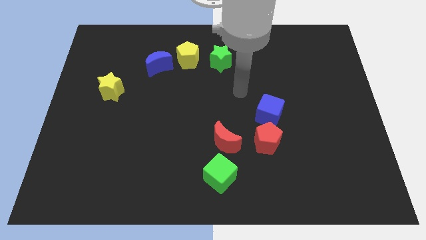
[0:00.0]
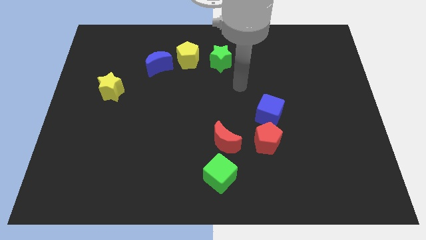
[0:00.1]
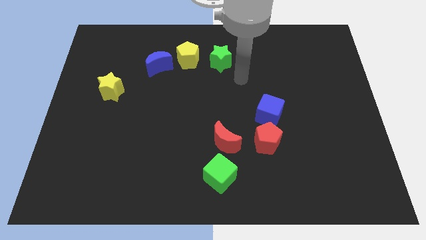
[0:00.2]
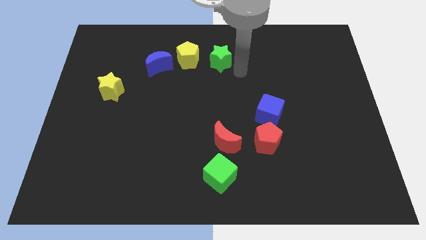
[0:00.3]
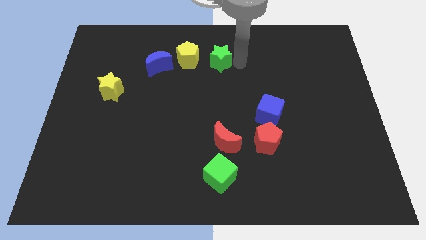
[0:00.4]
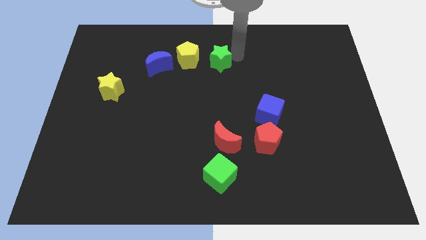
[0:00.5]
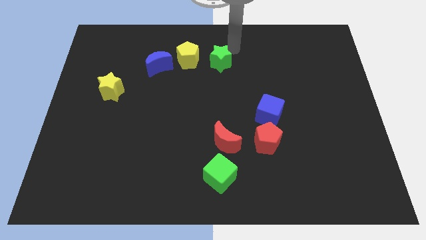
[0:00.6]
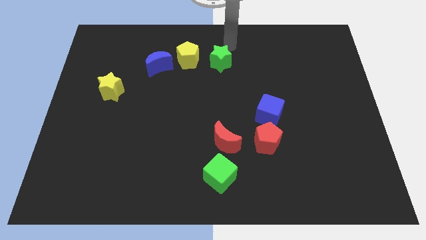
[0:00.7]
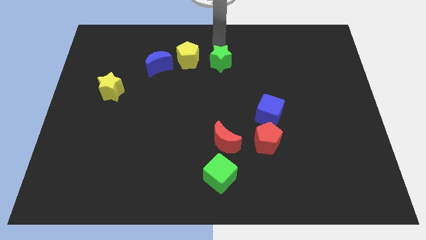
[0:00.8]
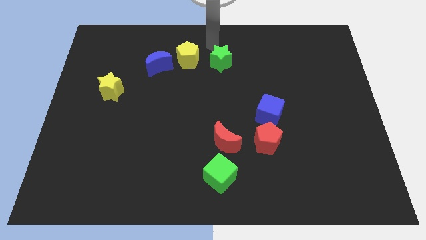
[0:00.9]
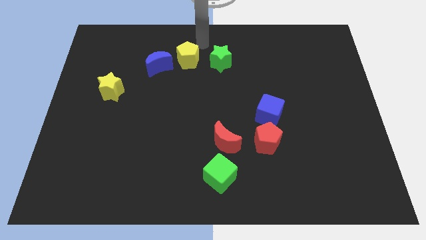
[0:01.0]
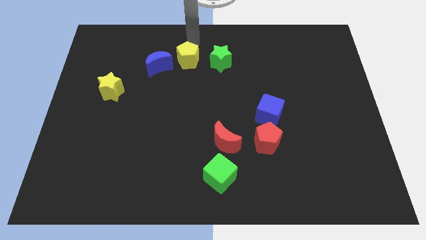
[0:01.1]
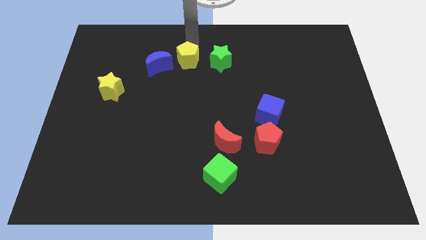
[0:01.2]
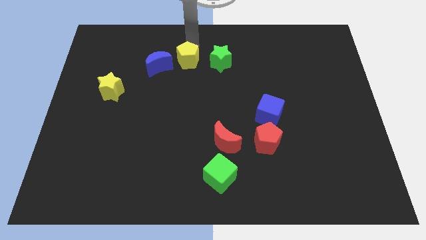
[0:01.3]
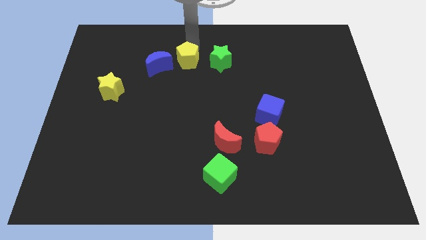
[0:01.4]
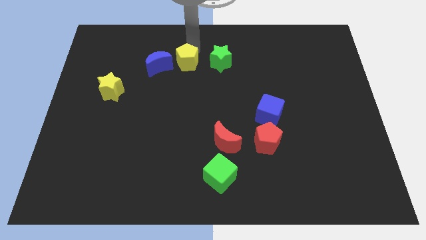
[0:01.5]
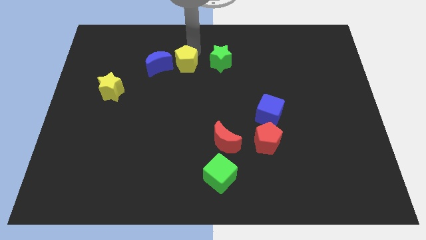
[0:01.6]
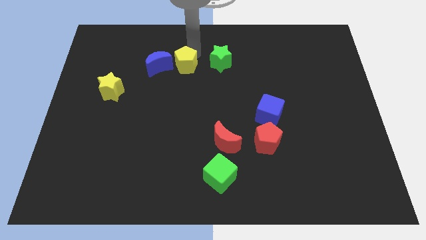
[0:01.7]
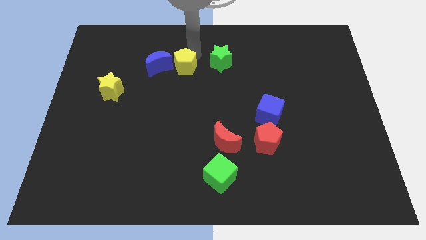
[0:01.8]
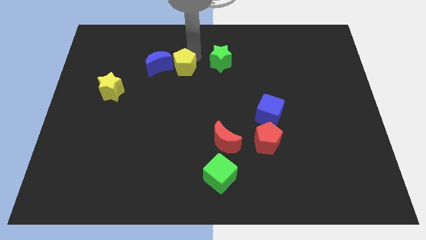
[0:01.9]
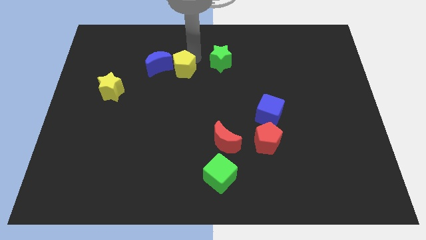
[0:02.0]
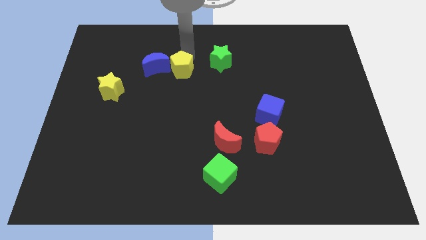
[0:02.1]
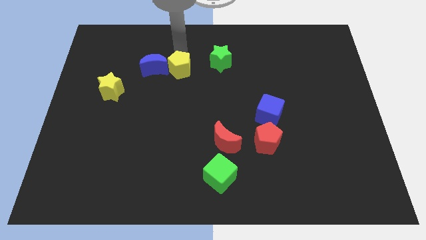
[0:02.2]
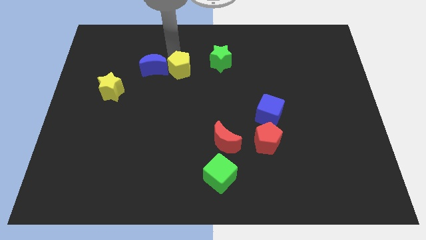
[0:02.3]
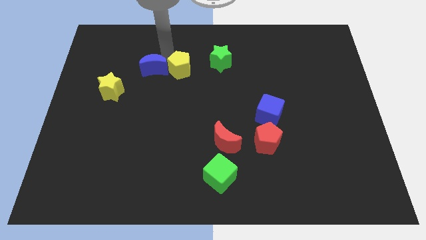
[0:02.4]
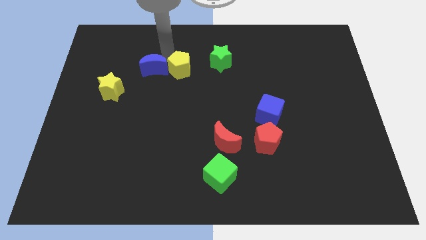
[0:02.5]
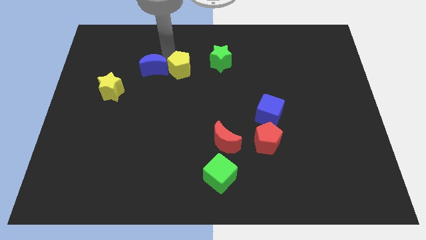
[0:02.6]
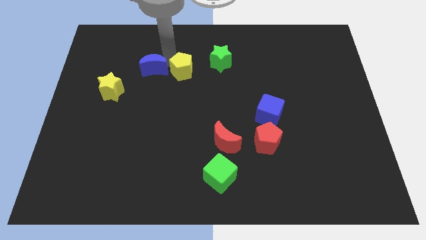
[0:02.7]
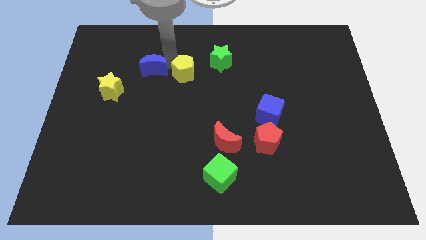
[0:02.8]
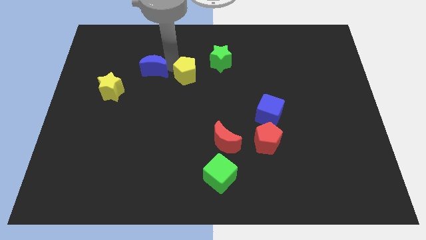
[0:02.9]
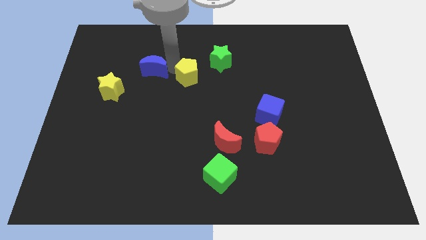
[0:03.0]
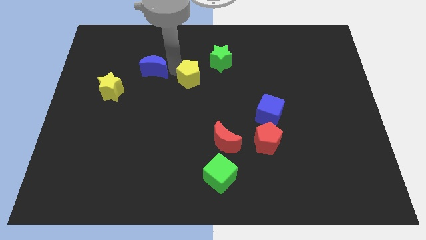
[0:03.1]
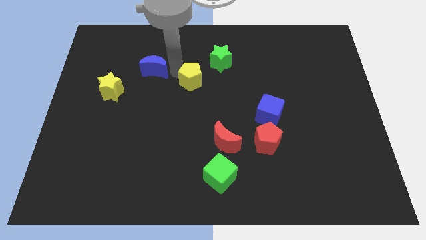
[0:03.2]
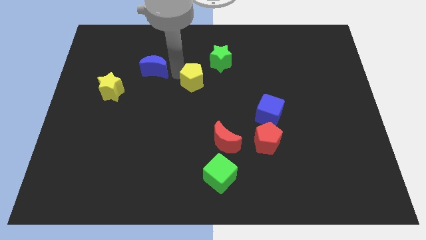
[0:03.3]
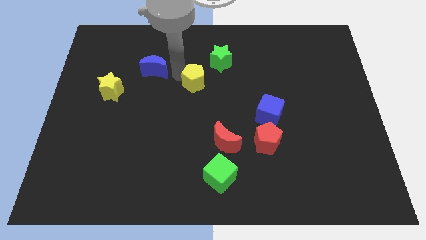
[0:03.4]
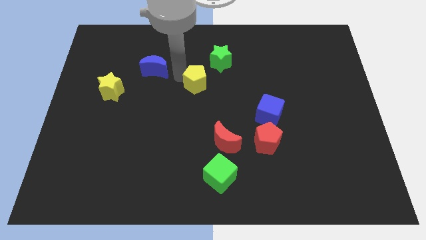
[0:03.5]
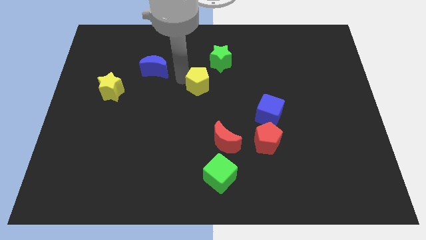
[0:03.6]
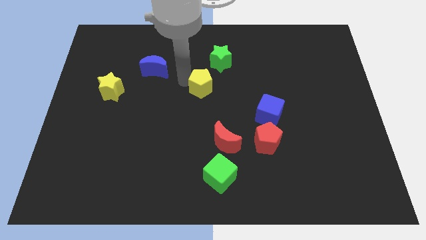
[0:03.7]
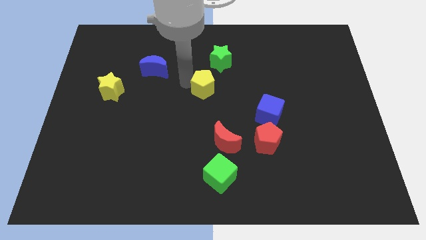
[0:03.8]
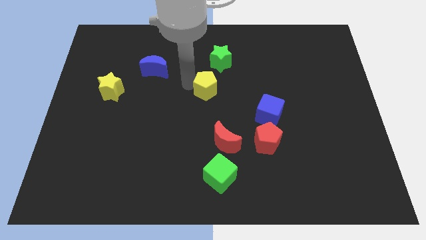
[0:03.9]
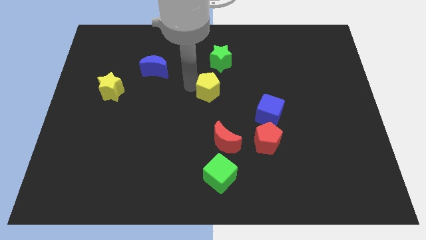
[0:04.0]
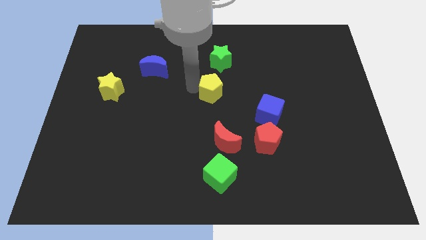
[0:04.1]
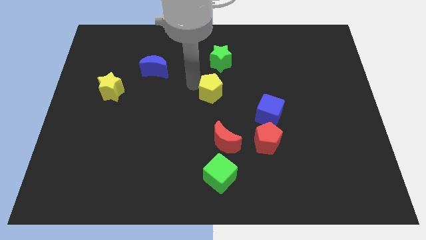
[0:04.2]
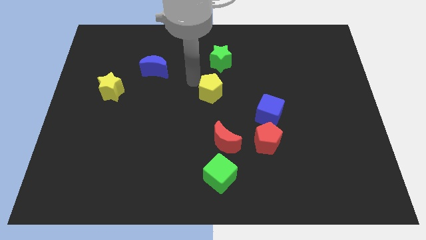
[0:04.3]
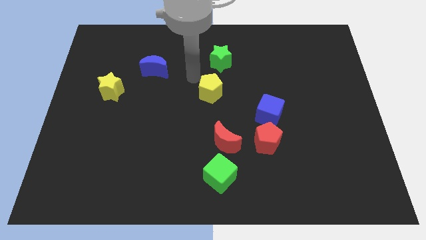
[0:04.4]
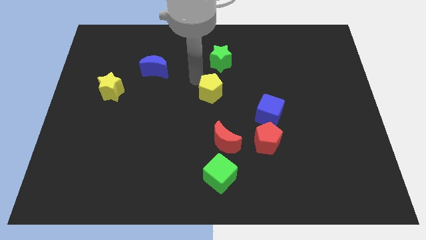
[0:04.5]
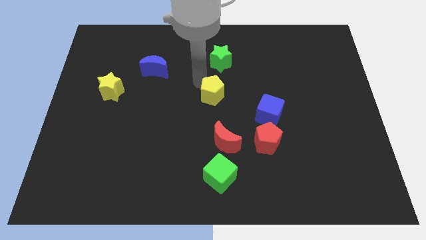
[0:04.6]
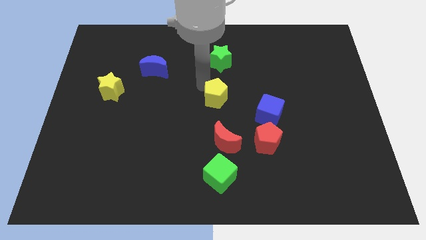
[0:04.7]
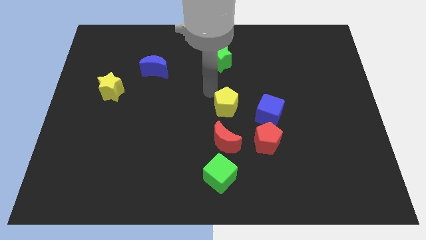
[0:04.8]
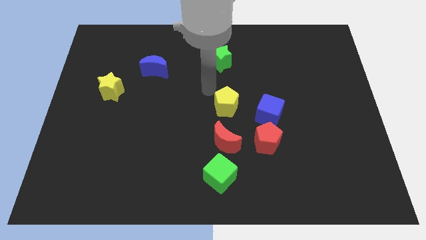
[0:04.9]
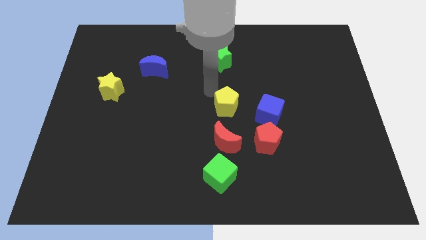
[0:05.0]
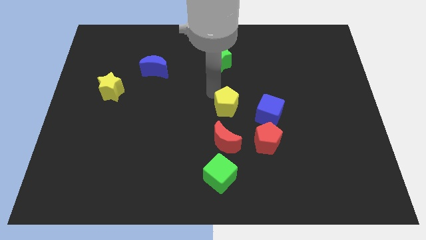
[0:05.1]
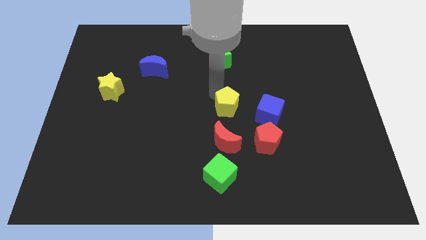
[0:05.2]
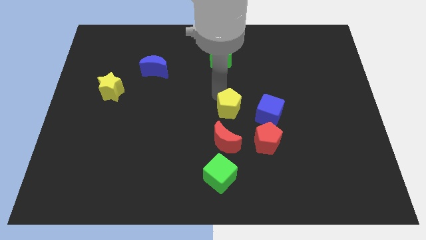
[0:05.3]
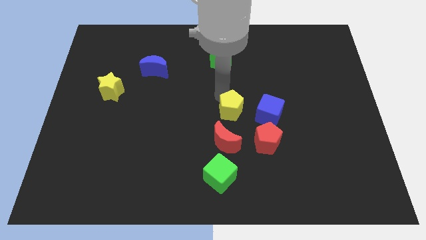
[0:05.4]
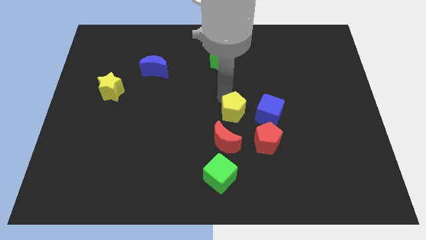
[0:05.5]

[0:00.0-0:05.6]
move the yellow pentagon diagonally up and to the right of the red moon

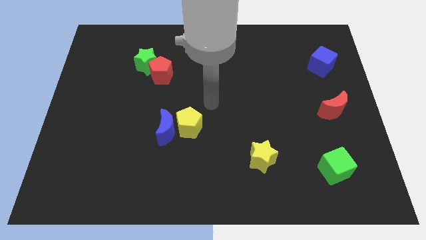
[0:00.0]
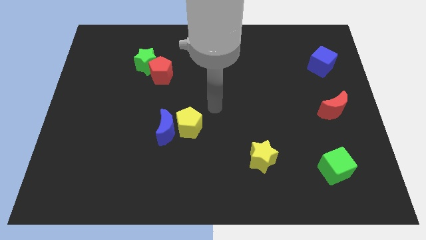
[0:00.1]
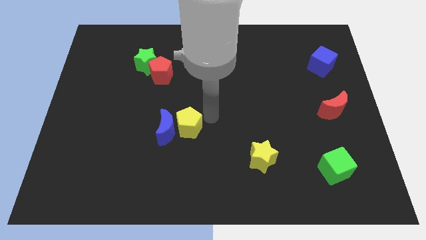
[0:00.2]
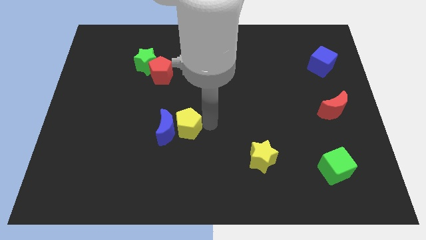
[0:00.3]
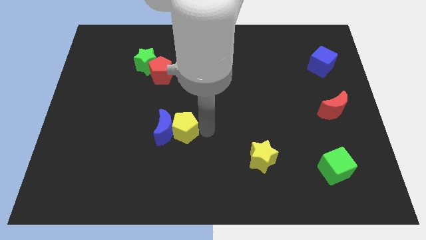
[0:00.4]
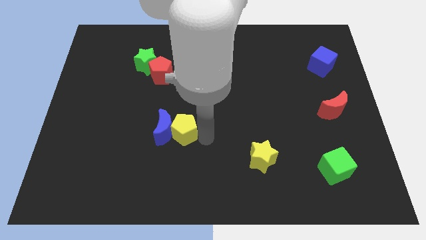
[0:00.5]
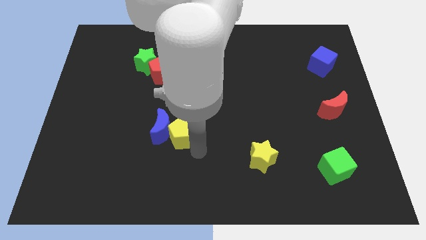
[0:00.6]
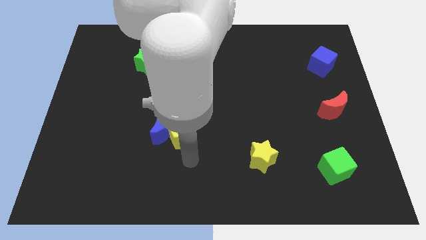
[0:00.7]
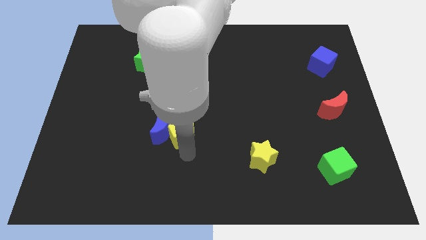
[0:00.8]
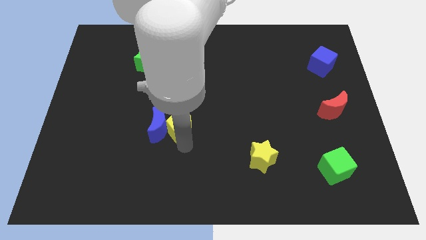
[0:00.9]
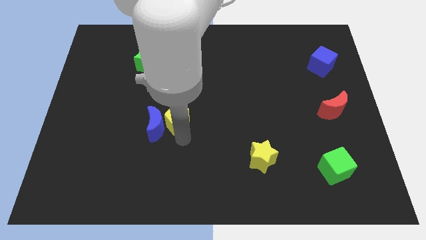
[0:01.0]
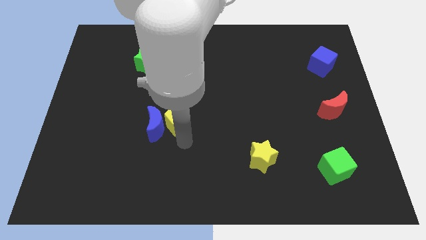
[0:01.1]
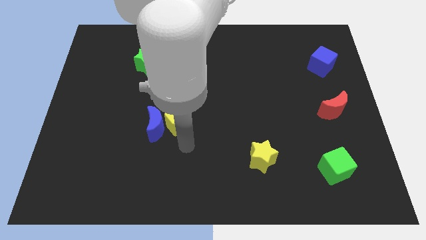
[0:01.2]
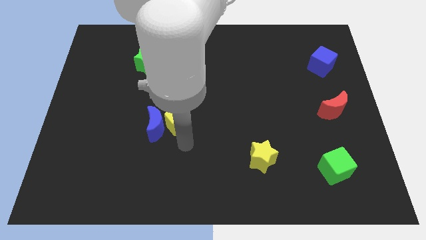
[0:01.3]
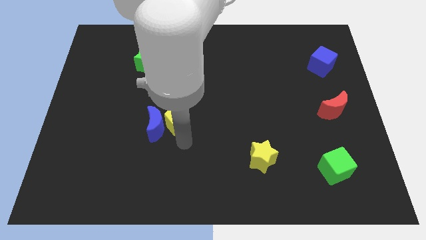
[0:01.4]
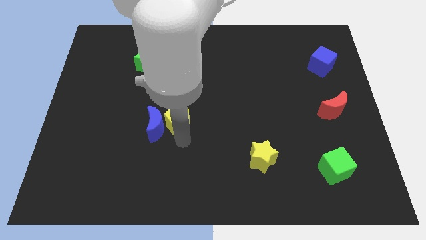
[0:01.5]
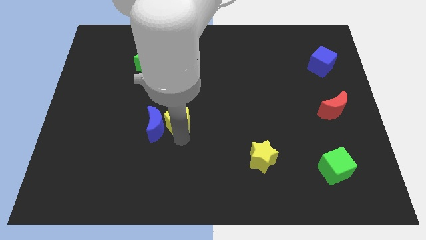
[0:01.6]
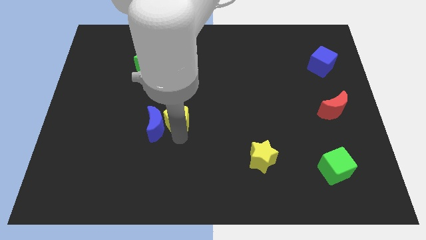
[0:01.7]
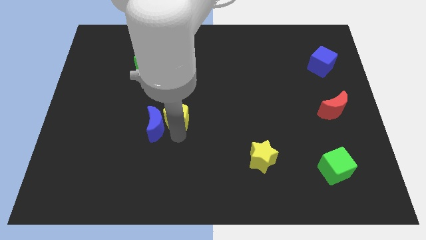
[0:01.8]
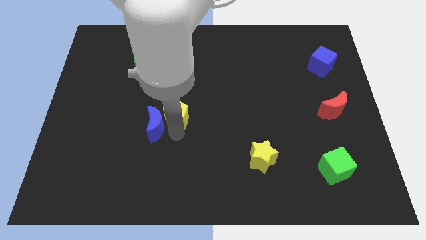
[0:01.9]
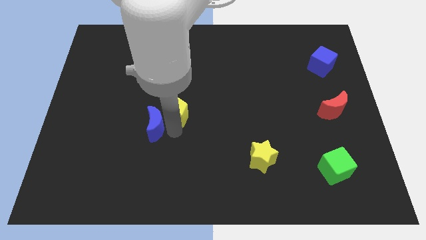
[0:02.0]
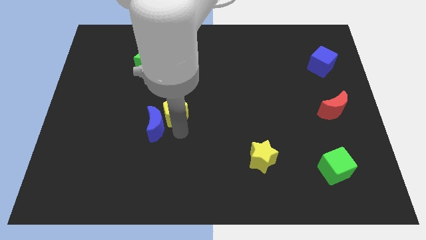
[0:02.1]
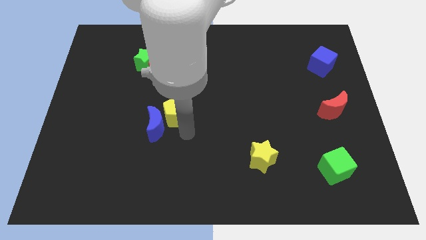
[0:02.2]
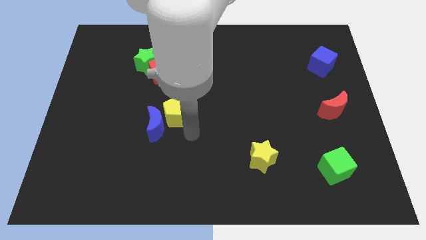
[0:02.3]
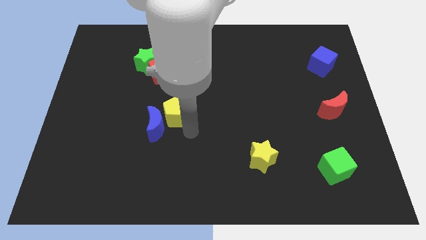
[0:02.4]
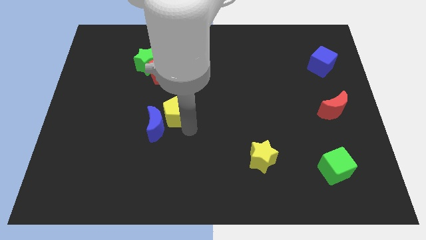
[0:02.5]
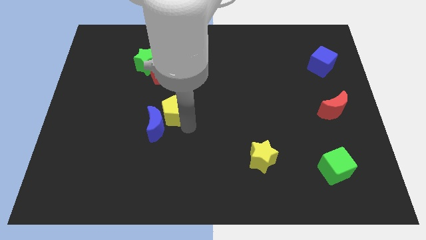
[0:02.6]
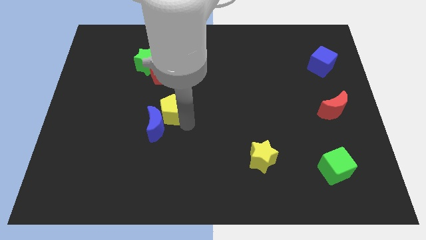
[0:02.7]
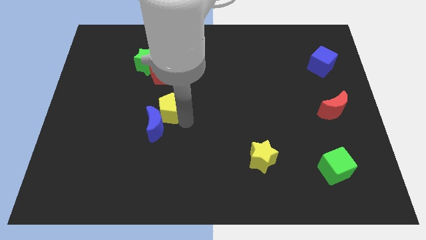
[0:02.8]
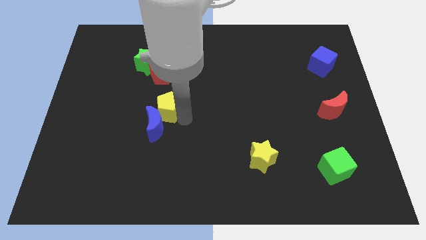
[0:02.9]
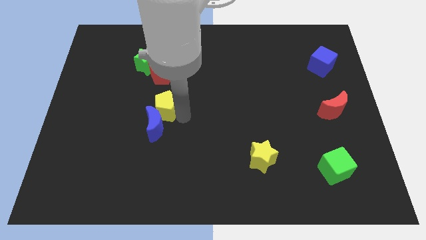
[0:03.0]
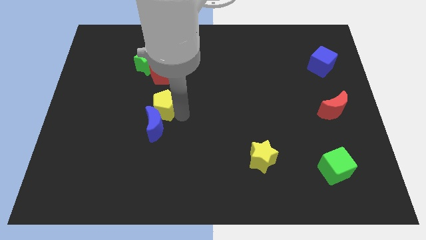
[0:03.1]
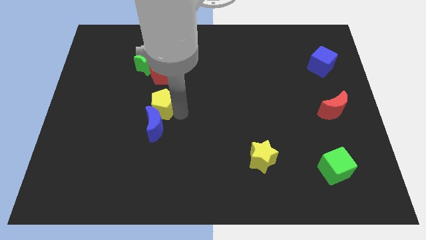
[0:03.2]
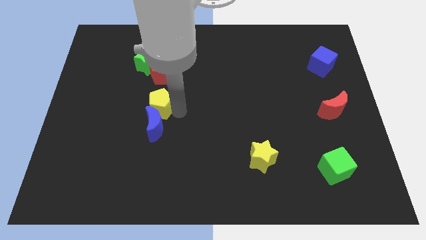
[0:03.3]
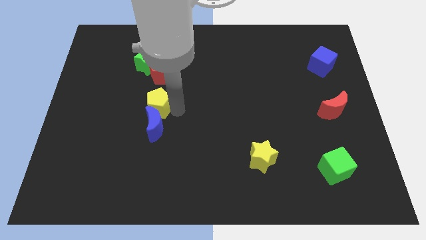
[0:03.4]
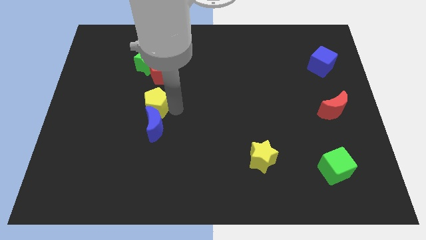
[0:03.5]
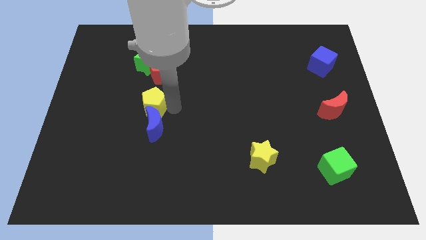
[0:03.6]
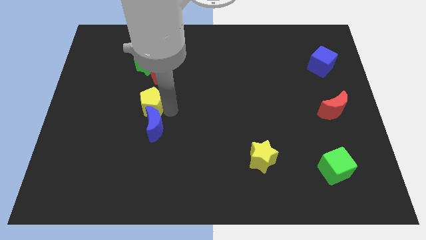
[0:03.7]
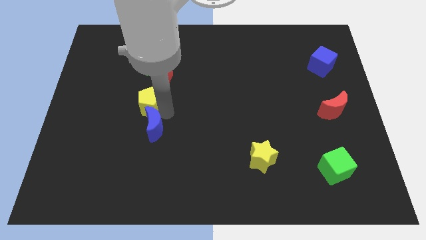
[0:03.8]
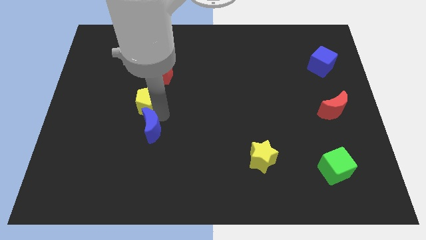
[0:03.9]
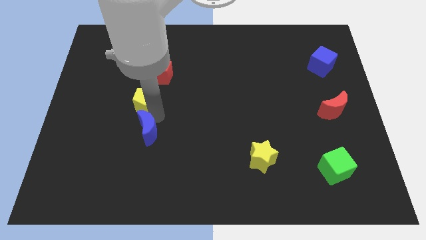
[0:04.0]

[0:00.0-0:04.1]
put the yellow pentagon to the bottom left side of the red pentagon
